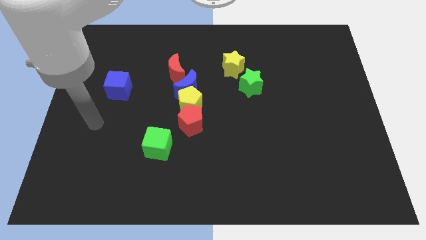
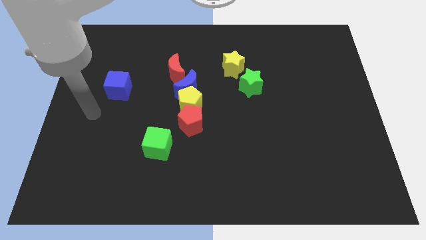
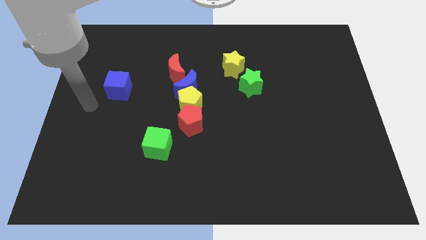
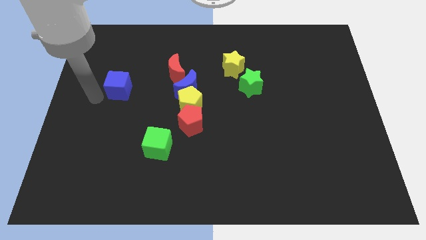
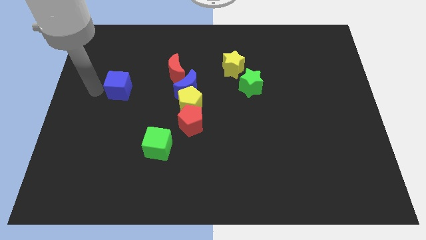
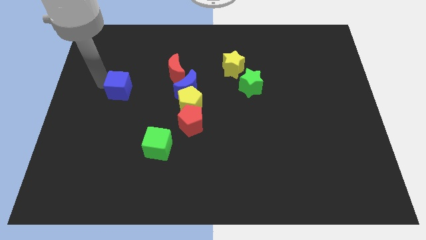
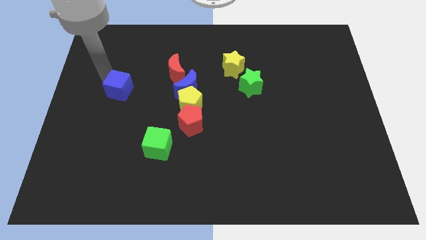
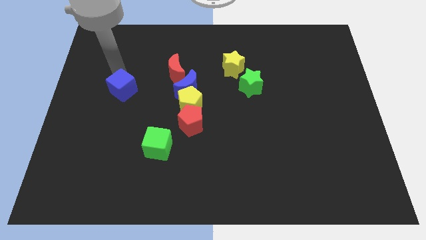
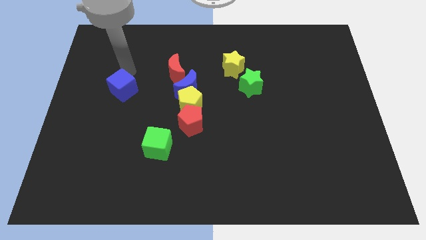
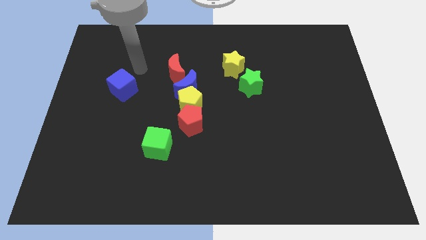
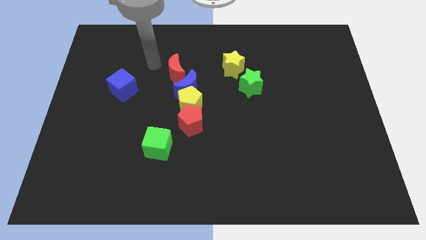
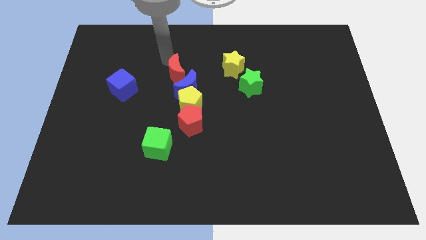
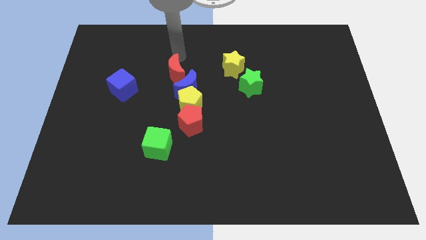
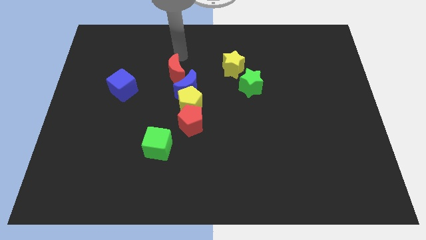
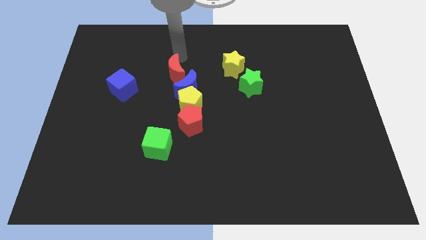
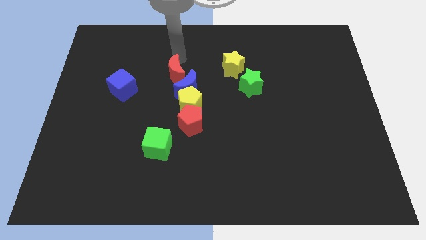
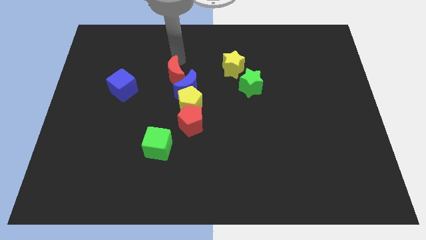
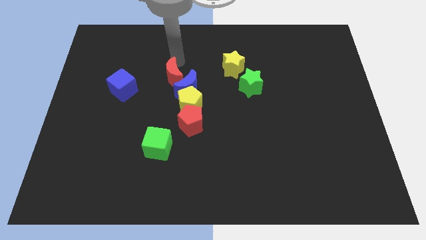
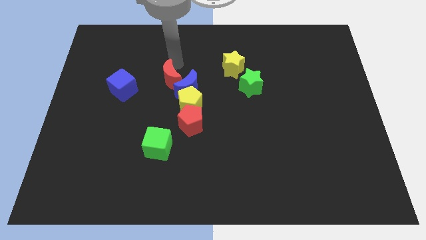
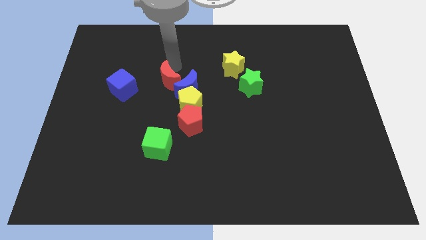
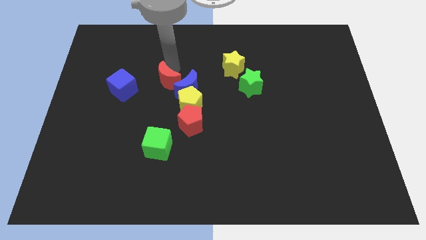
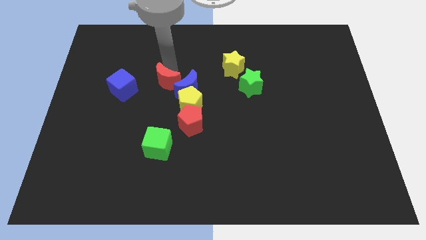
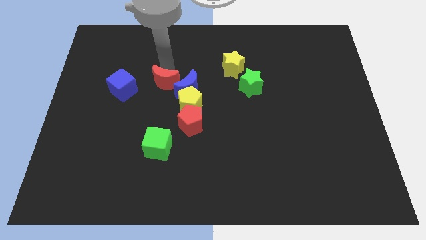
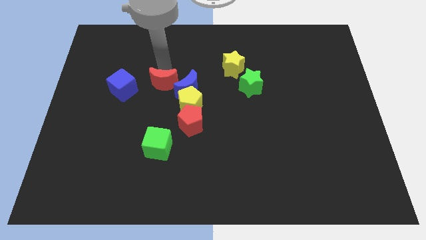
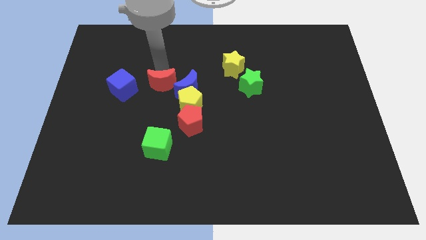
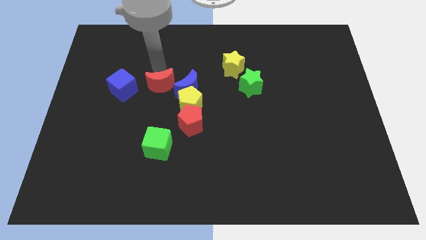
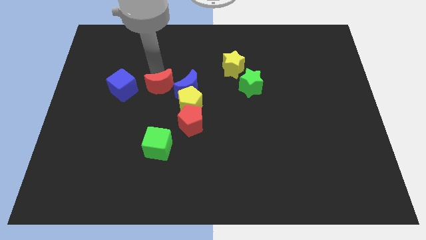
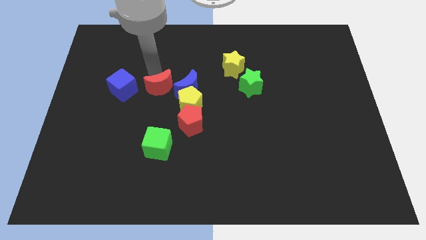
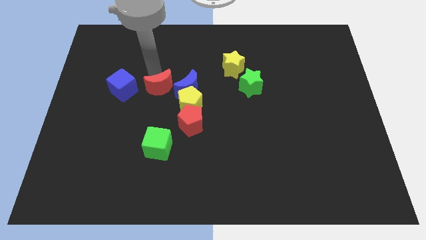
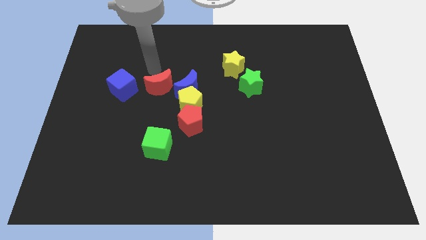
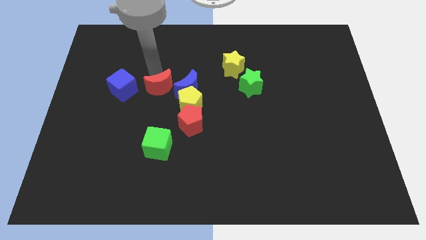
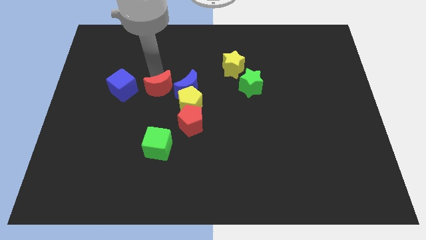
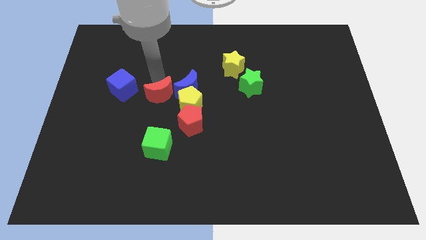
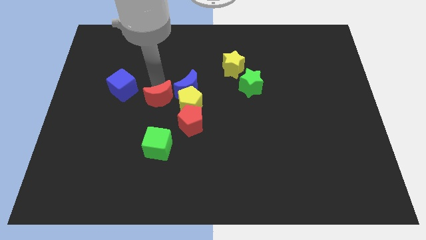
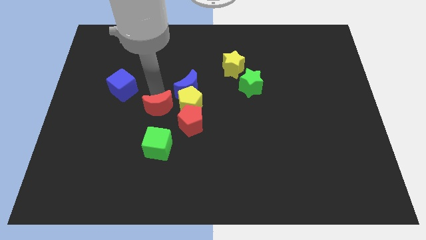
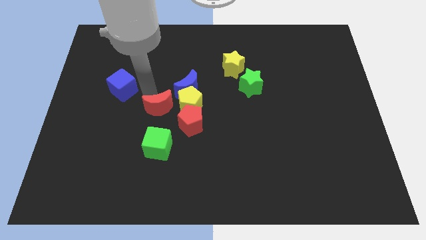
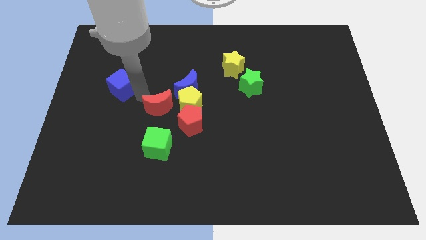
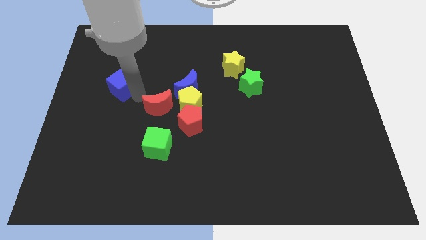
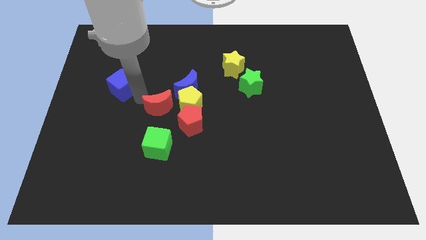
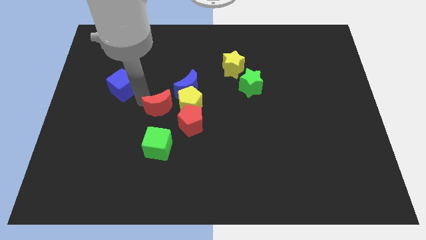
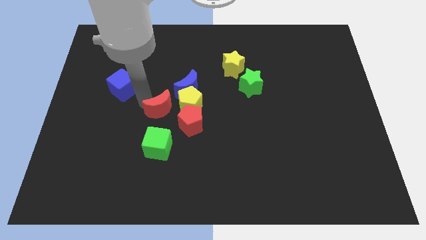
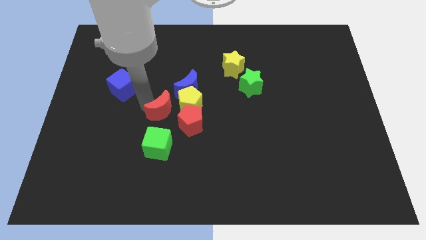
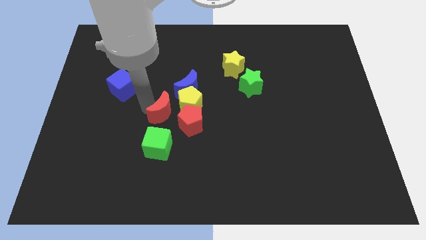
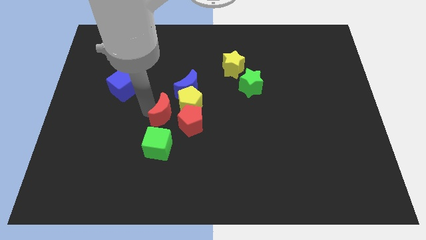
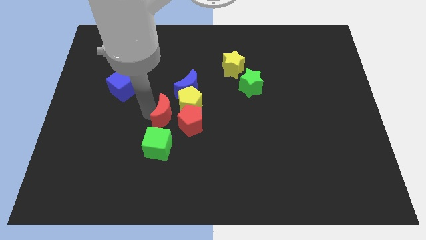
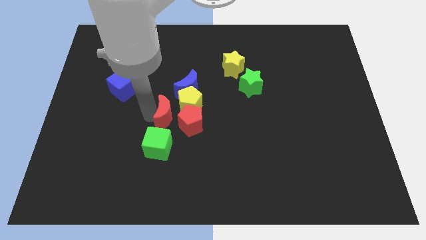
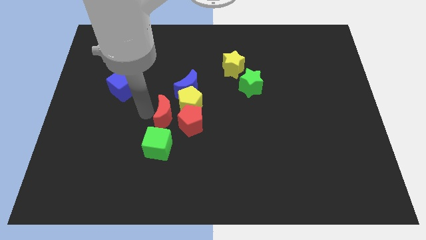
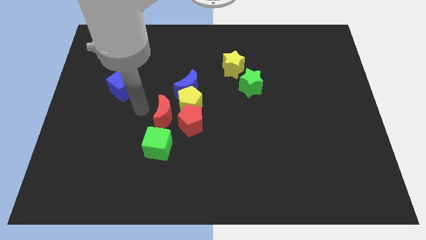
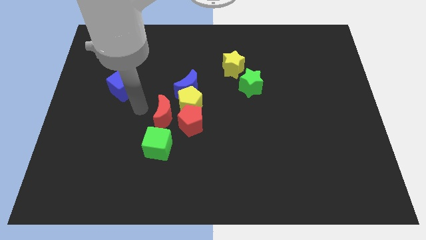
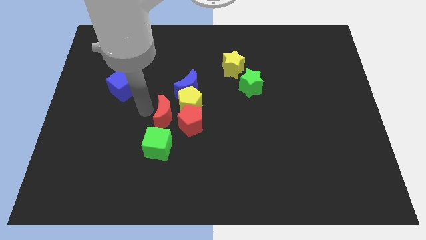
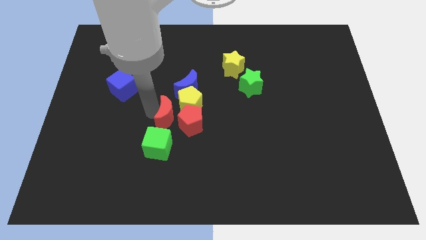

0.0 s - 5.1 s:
put the red moon towards the red pentagon

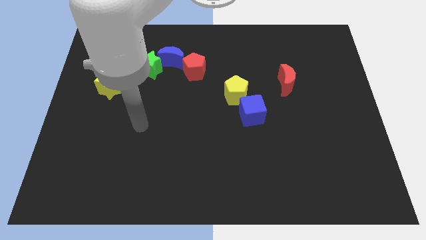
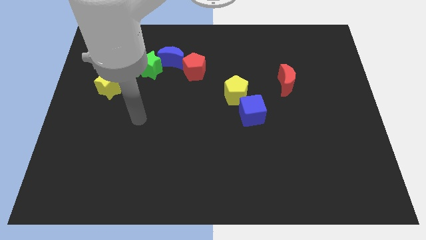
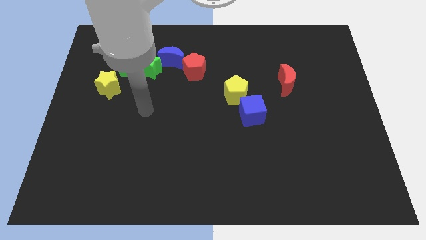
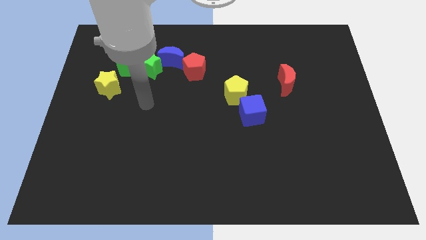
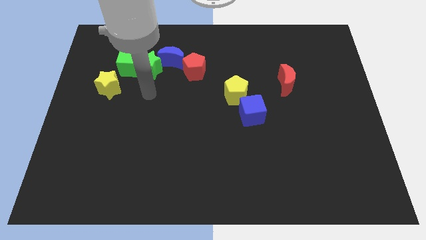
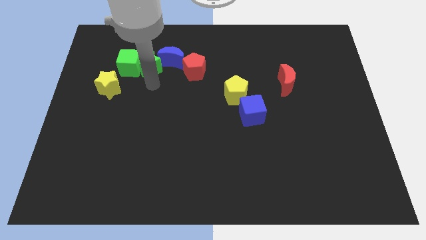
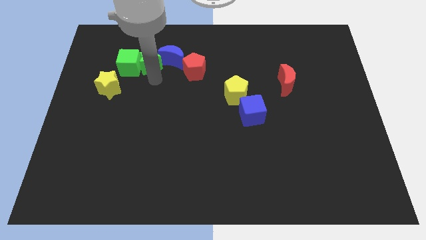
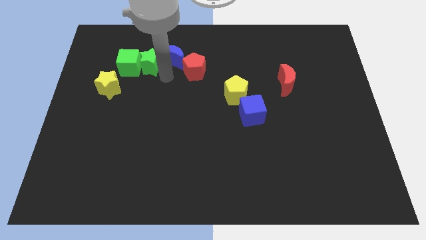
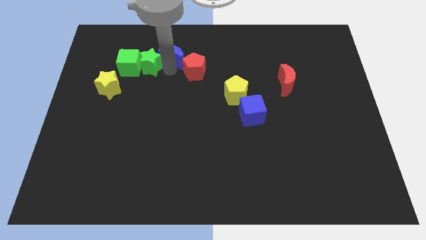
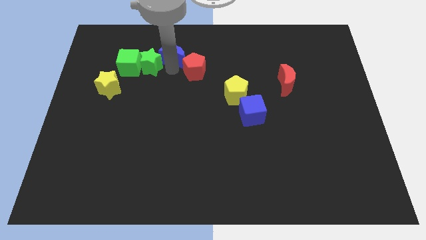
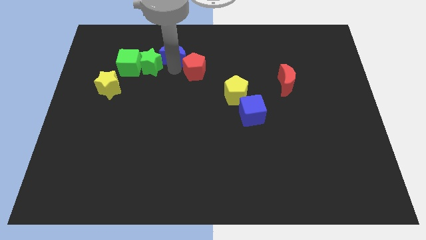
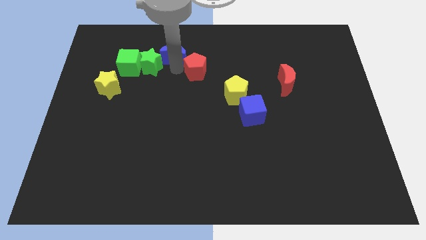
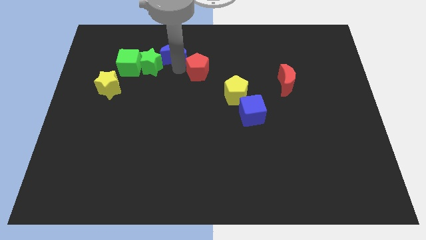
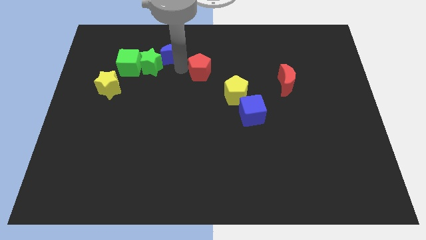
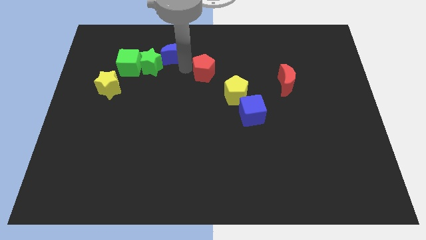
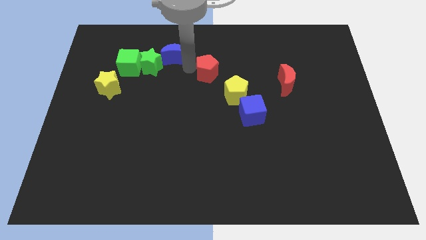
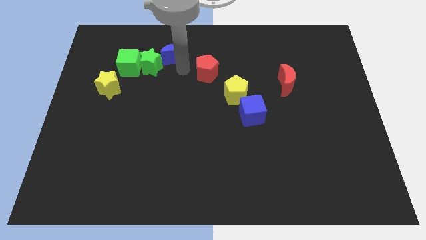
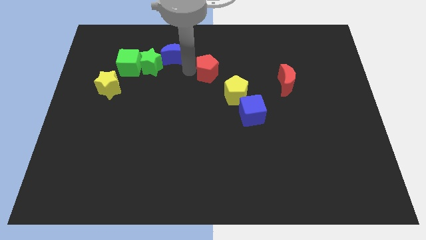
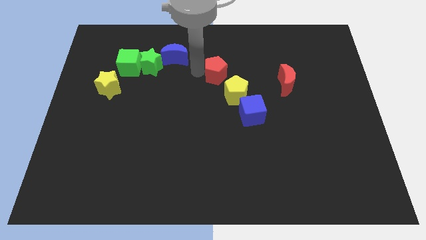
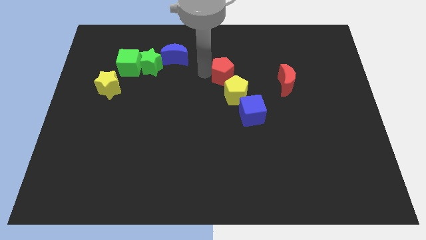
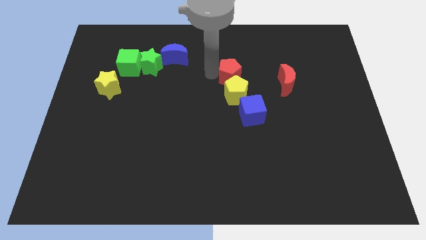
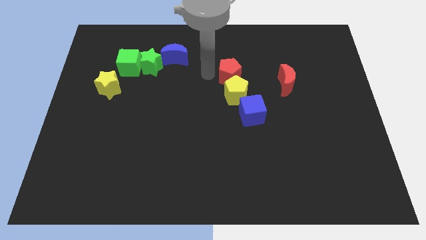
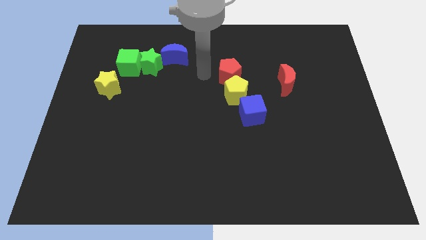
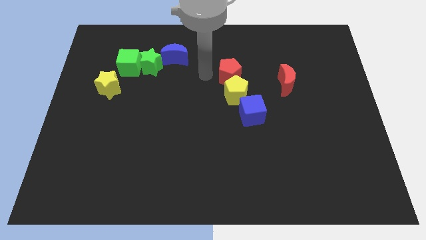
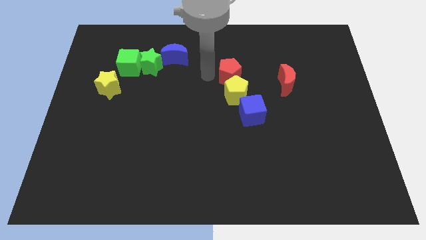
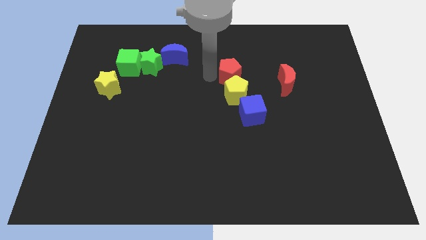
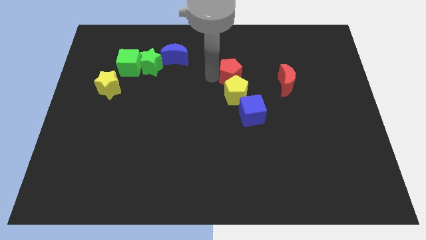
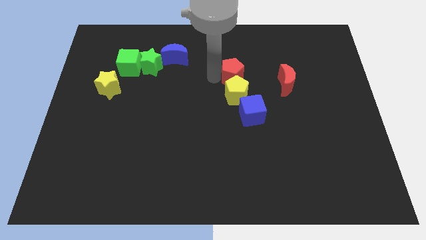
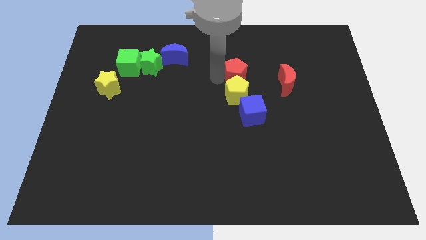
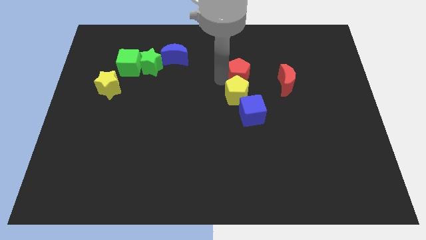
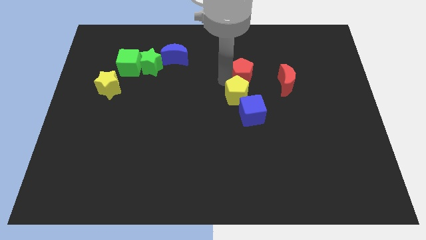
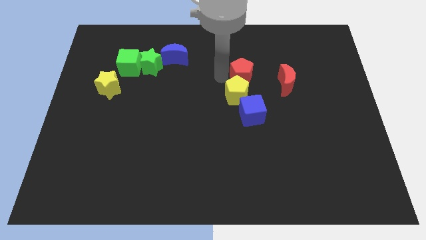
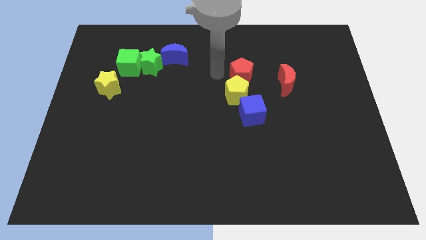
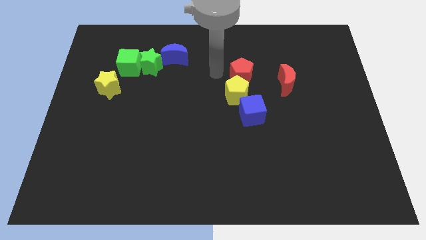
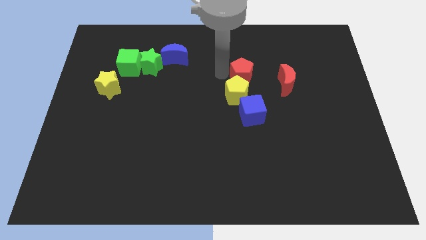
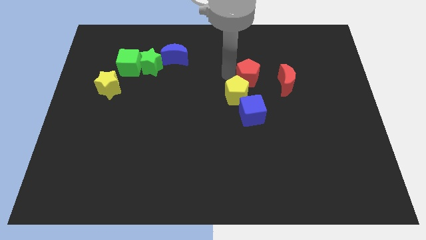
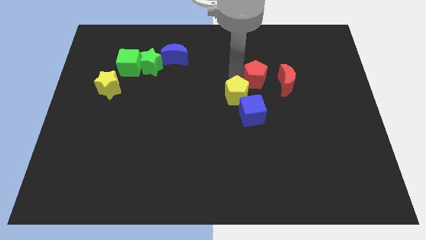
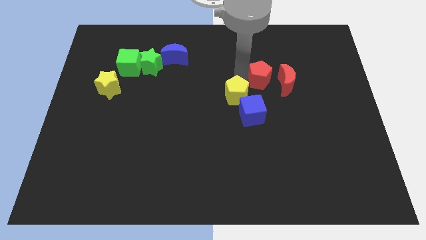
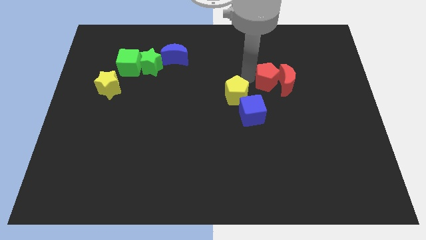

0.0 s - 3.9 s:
slide the red pentagon towards the red moon
